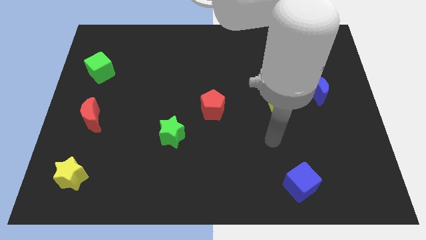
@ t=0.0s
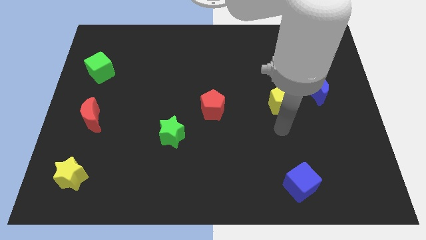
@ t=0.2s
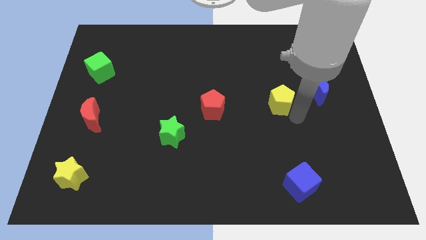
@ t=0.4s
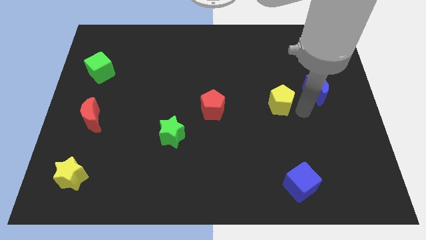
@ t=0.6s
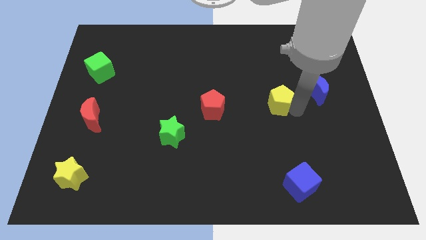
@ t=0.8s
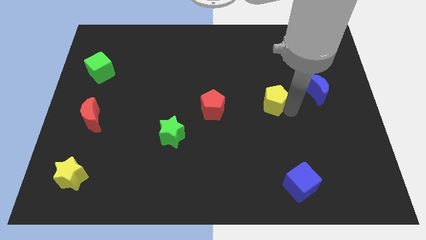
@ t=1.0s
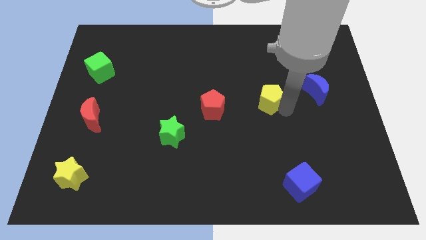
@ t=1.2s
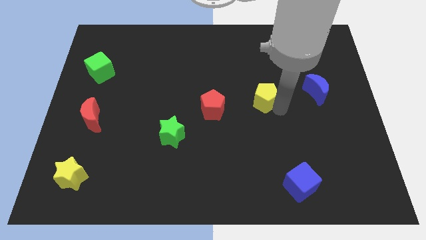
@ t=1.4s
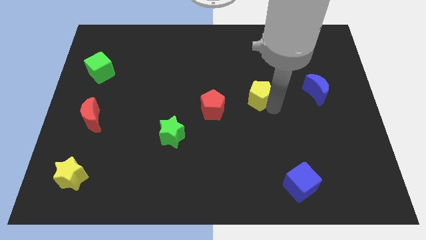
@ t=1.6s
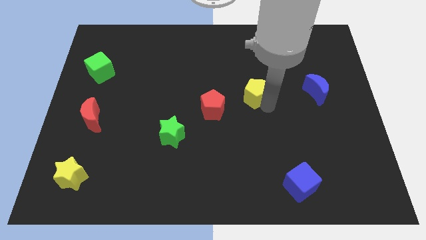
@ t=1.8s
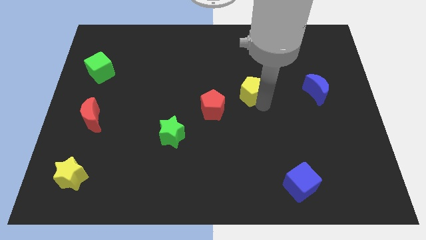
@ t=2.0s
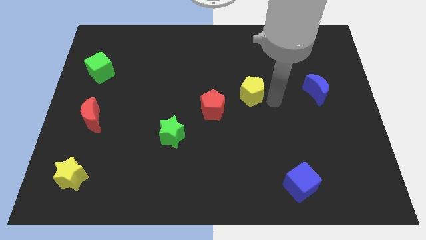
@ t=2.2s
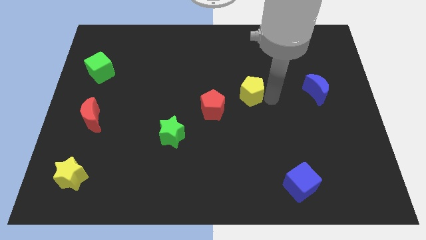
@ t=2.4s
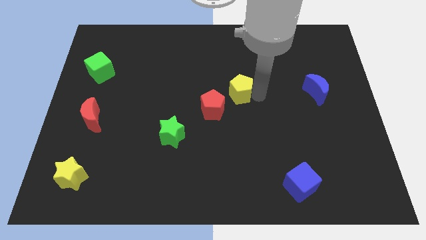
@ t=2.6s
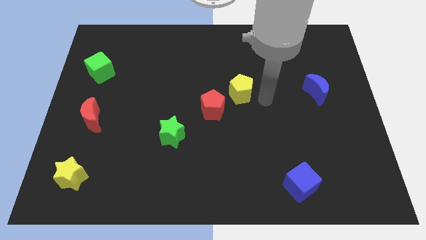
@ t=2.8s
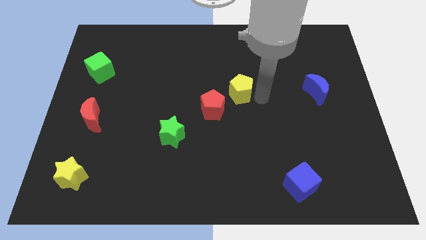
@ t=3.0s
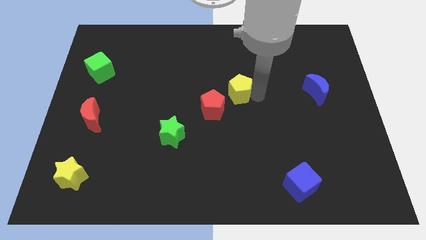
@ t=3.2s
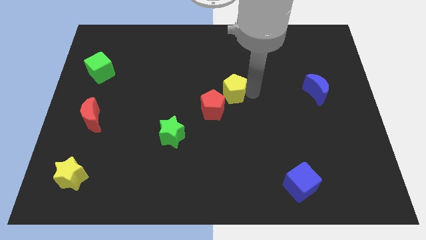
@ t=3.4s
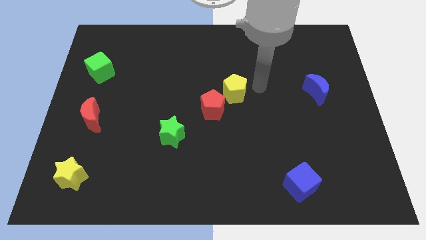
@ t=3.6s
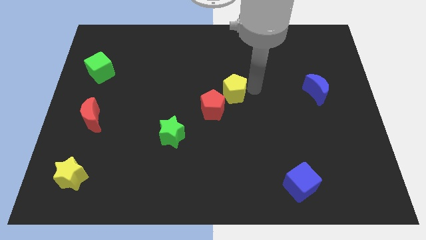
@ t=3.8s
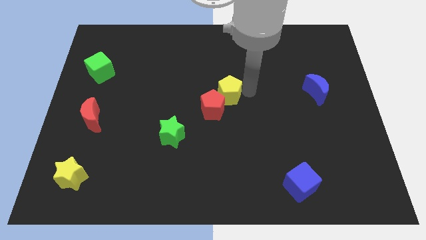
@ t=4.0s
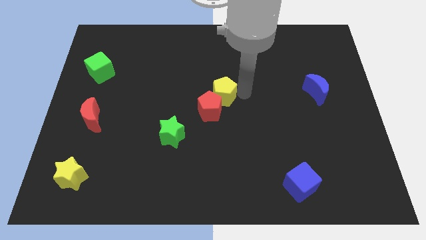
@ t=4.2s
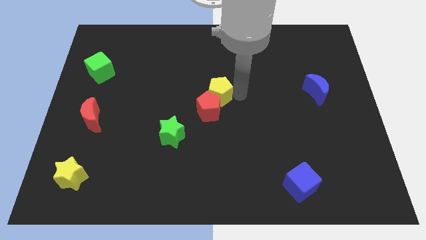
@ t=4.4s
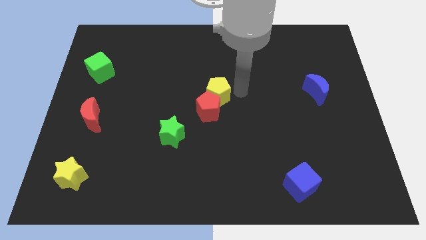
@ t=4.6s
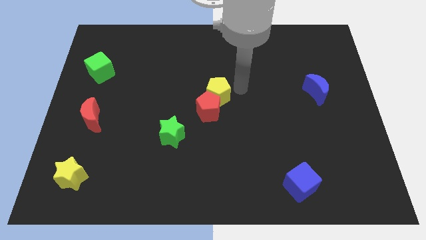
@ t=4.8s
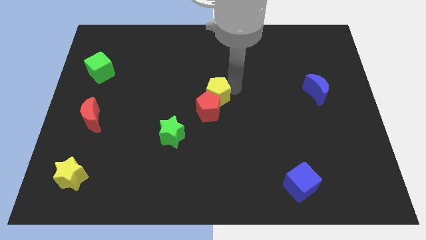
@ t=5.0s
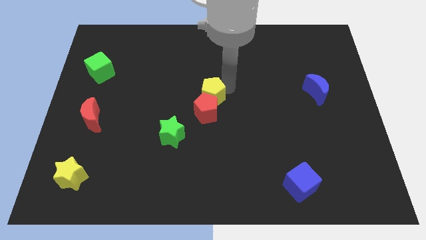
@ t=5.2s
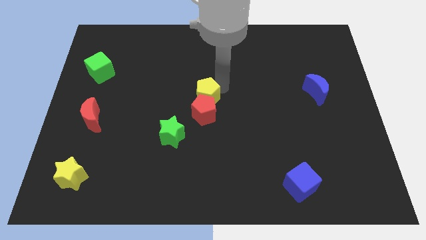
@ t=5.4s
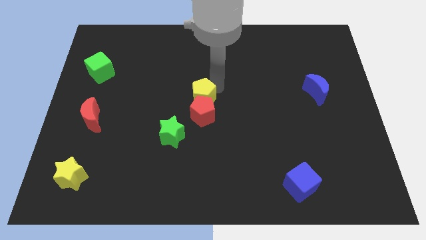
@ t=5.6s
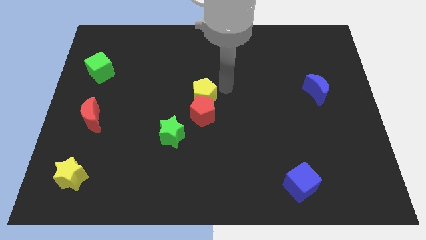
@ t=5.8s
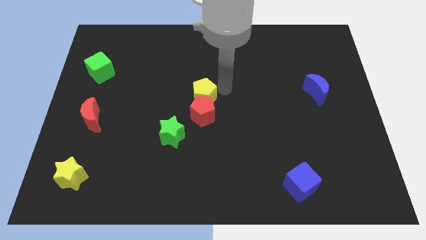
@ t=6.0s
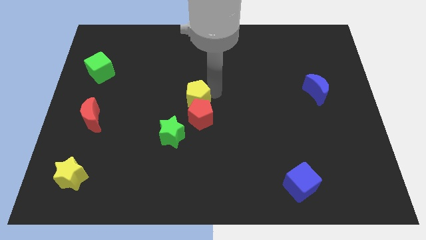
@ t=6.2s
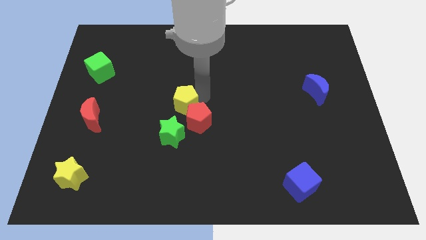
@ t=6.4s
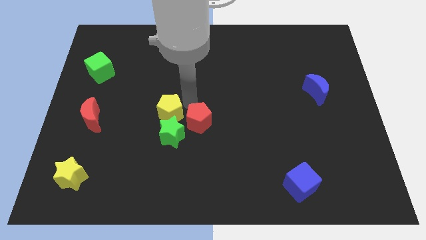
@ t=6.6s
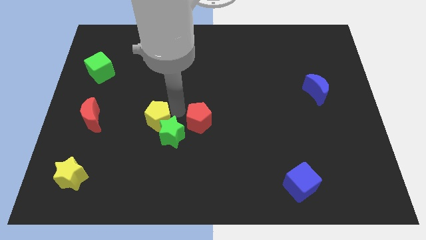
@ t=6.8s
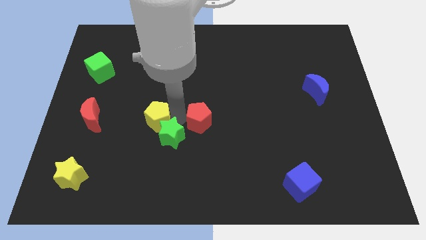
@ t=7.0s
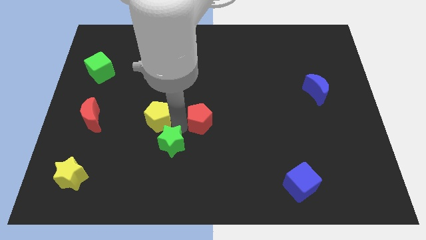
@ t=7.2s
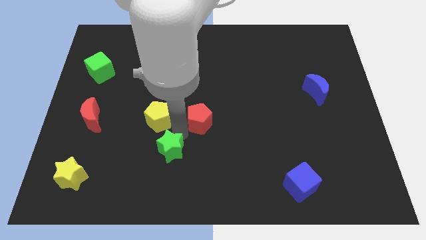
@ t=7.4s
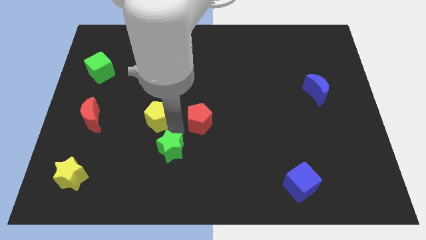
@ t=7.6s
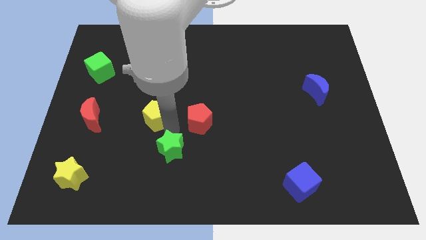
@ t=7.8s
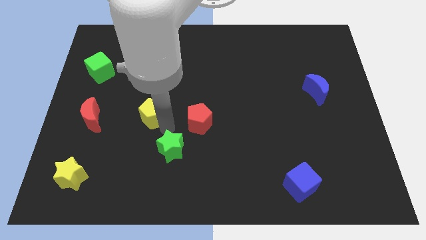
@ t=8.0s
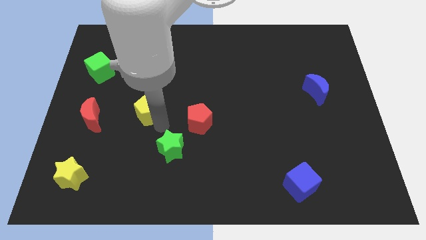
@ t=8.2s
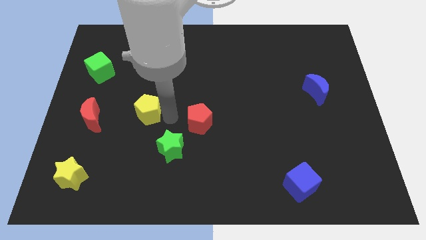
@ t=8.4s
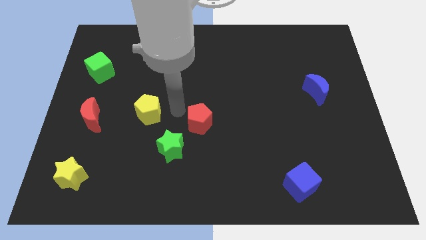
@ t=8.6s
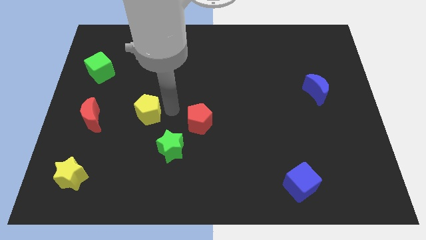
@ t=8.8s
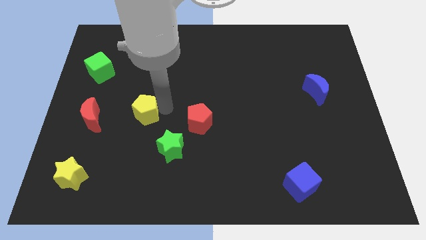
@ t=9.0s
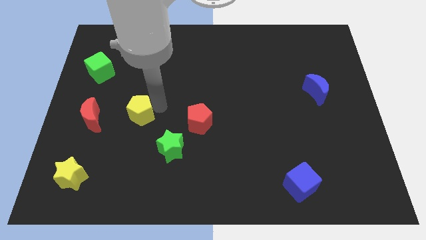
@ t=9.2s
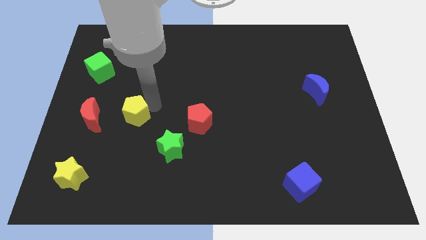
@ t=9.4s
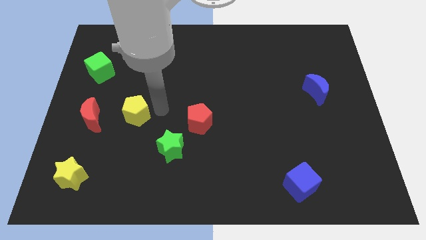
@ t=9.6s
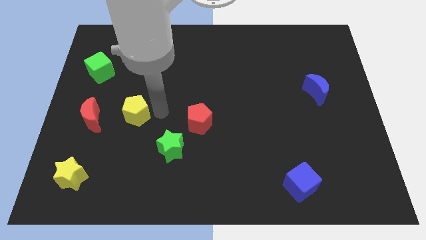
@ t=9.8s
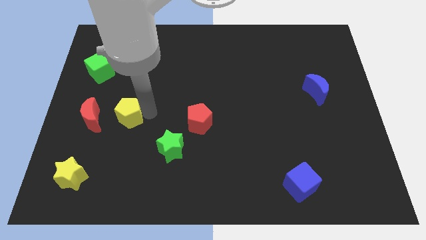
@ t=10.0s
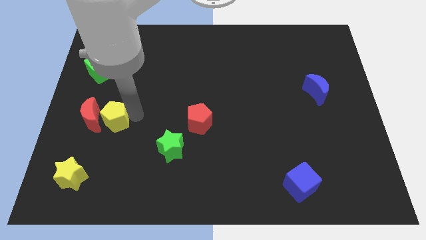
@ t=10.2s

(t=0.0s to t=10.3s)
move the yellow pentagon to the red moon

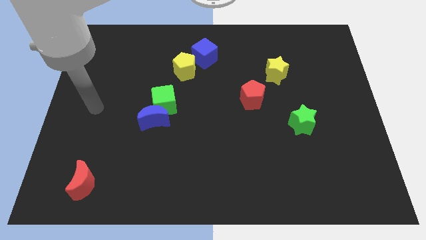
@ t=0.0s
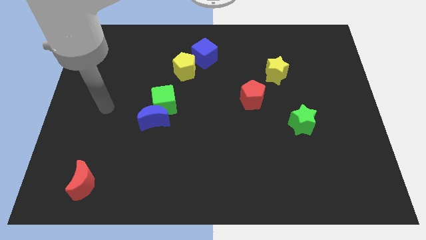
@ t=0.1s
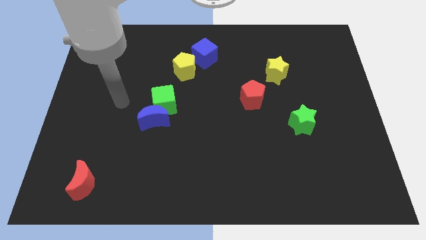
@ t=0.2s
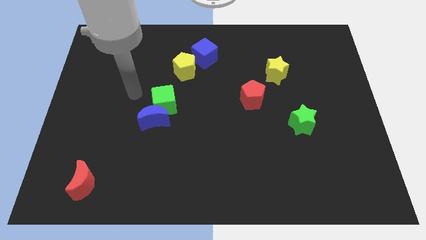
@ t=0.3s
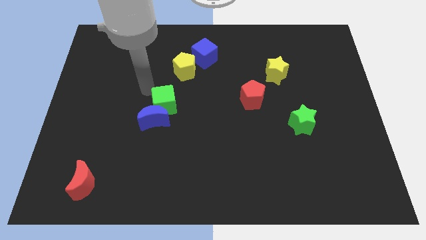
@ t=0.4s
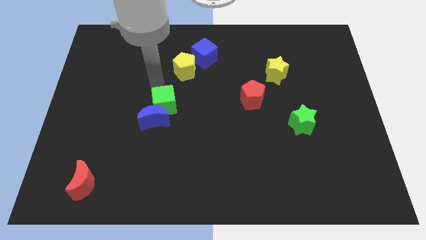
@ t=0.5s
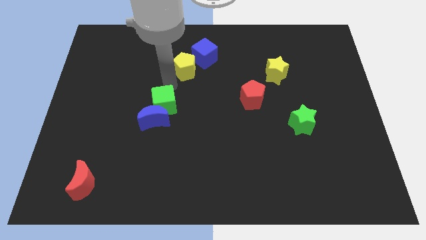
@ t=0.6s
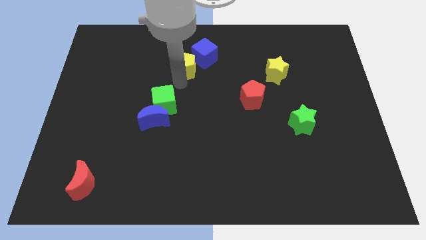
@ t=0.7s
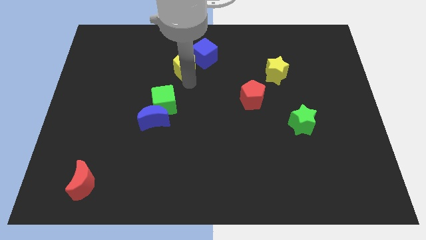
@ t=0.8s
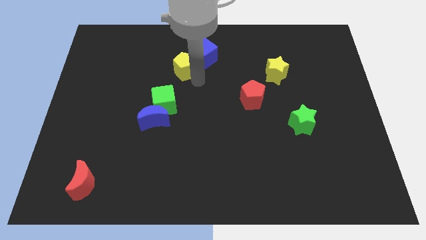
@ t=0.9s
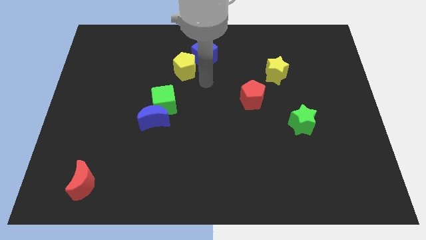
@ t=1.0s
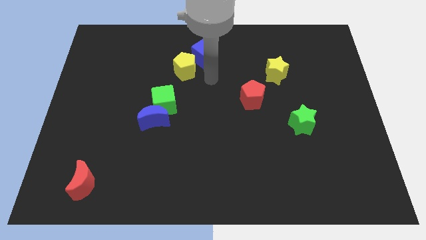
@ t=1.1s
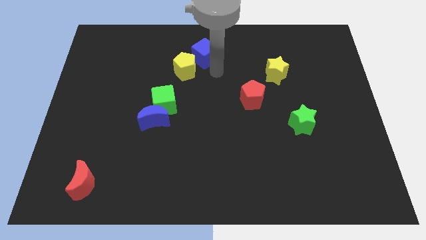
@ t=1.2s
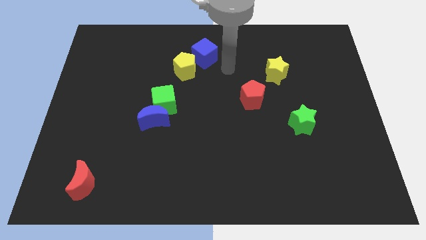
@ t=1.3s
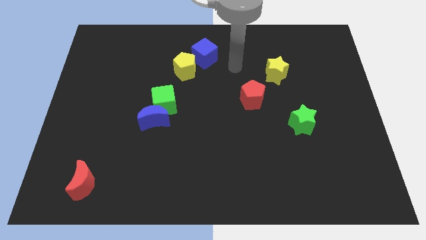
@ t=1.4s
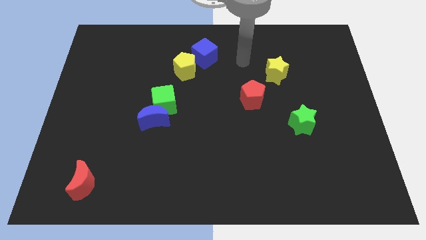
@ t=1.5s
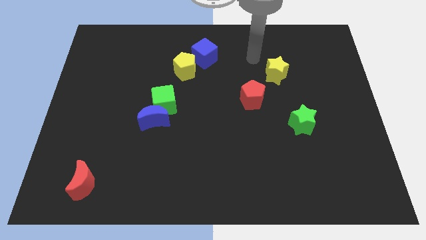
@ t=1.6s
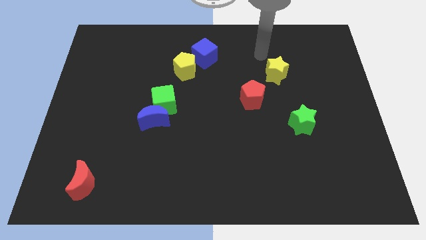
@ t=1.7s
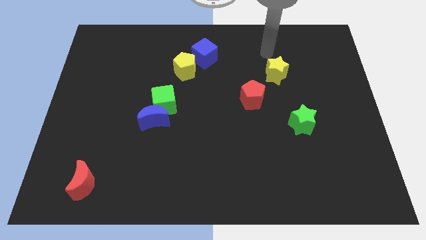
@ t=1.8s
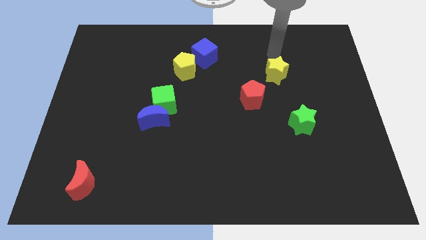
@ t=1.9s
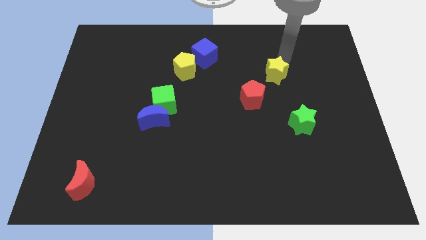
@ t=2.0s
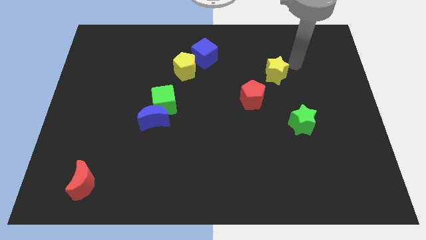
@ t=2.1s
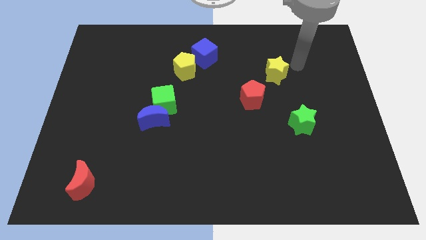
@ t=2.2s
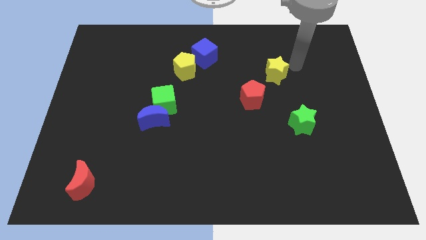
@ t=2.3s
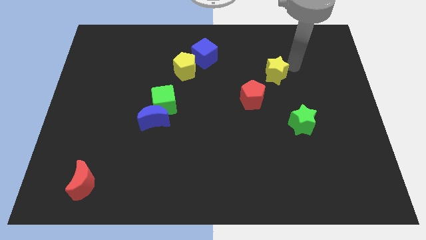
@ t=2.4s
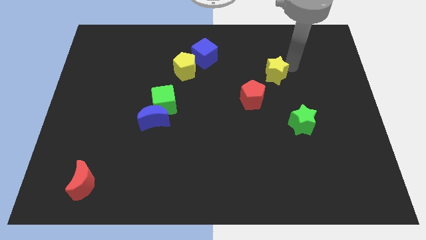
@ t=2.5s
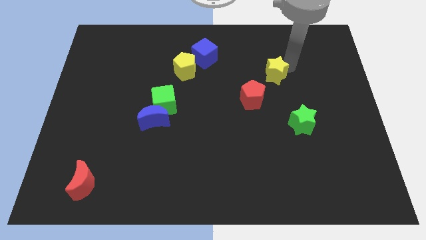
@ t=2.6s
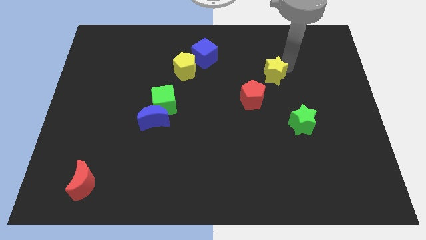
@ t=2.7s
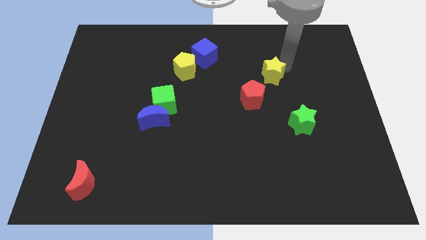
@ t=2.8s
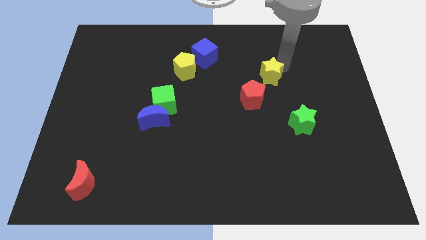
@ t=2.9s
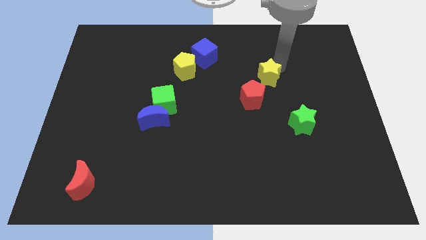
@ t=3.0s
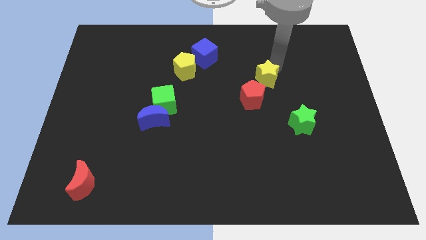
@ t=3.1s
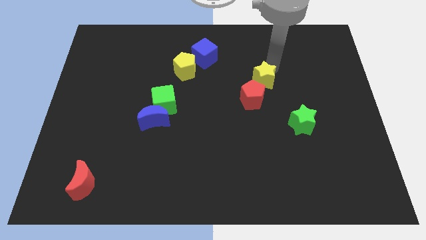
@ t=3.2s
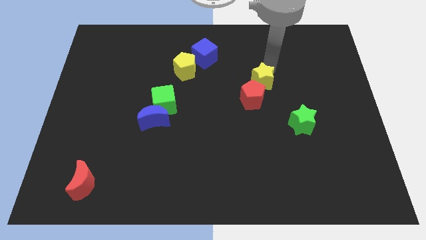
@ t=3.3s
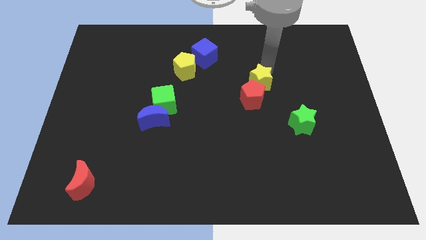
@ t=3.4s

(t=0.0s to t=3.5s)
slide the yellow star close to the red pentagon
